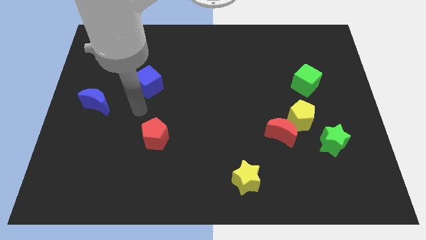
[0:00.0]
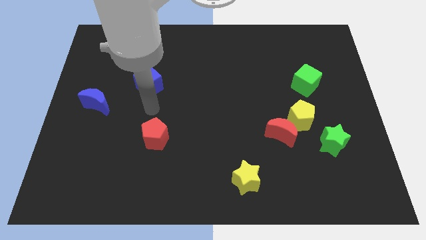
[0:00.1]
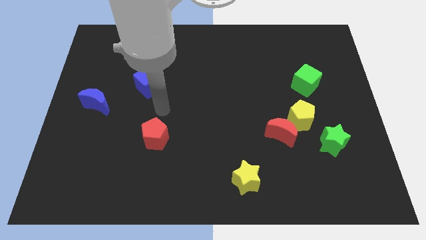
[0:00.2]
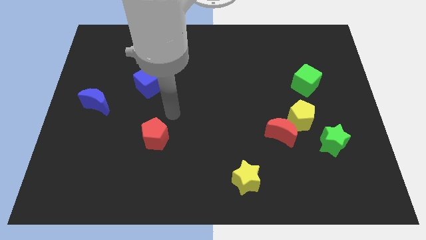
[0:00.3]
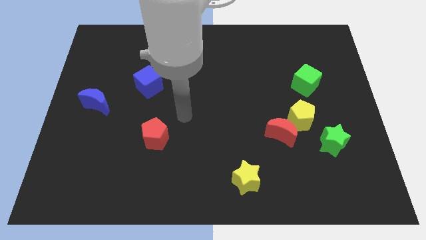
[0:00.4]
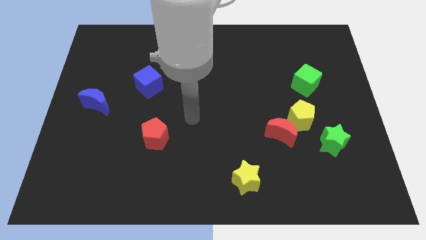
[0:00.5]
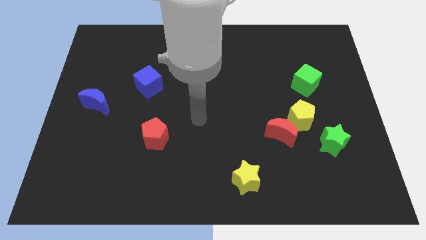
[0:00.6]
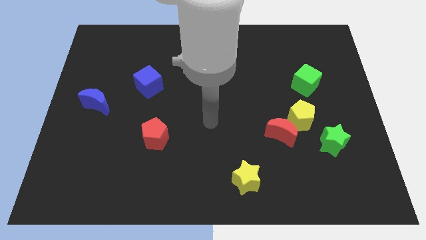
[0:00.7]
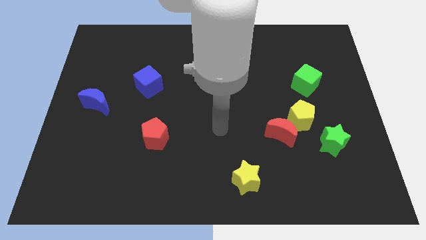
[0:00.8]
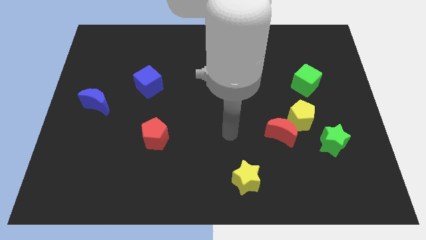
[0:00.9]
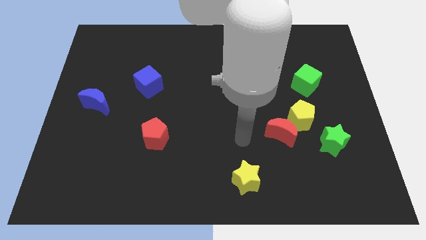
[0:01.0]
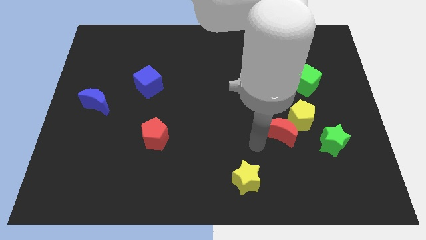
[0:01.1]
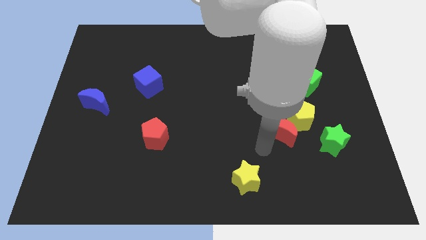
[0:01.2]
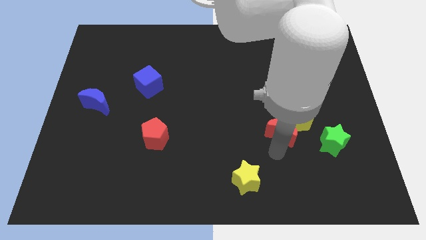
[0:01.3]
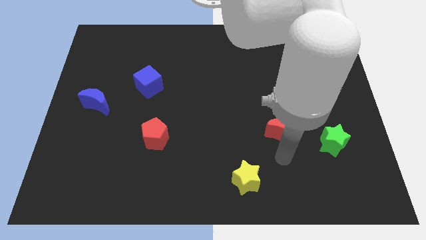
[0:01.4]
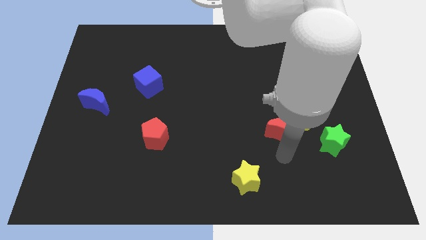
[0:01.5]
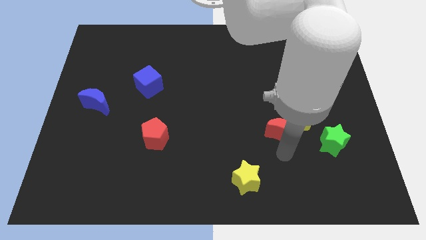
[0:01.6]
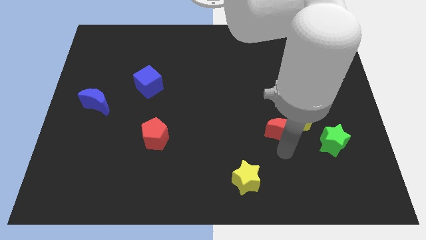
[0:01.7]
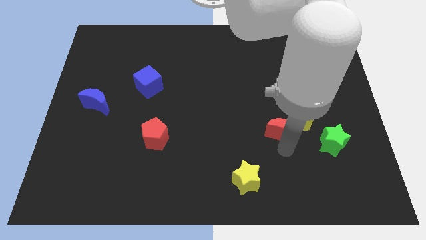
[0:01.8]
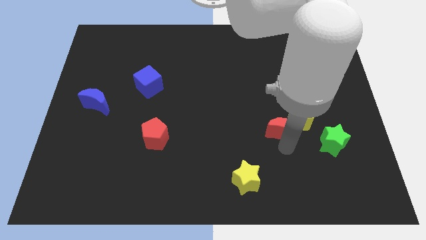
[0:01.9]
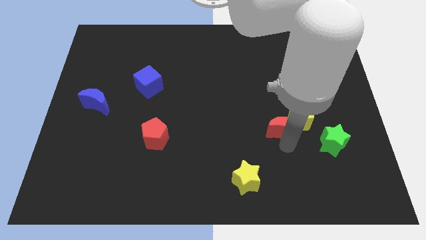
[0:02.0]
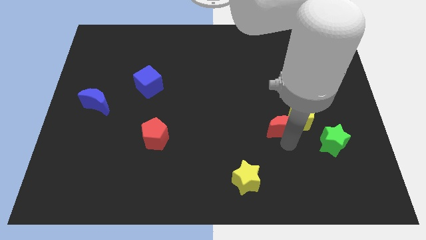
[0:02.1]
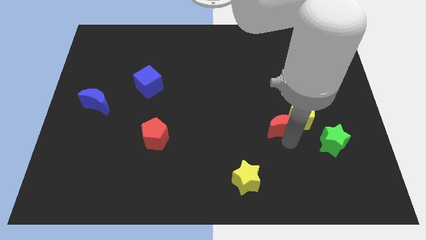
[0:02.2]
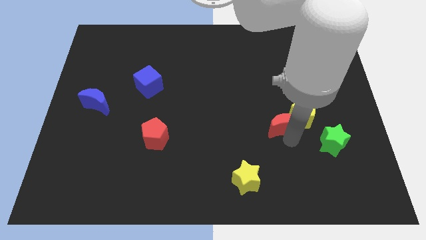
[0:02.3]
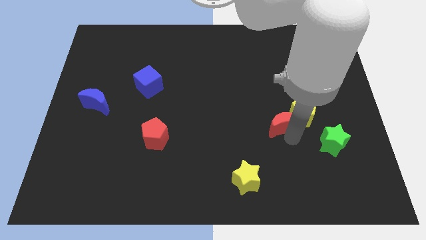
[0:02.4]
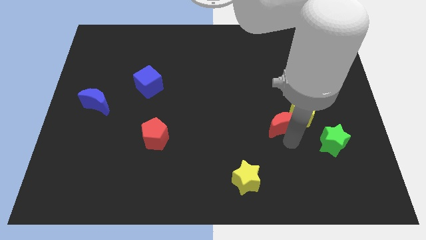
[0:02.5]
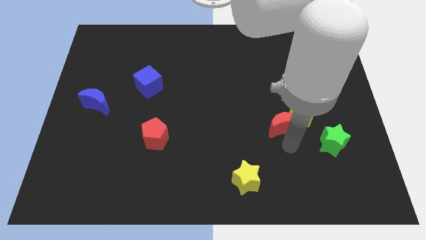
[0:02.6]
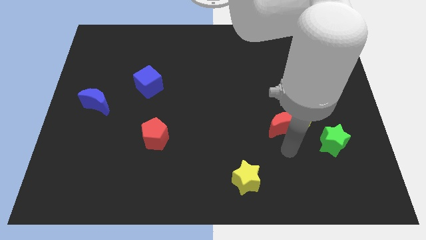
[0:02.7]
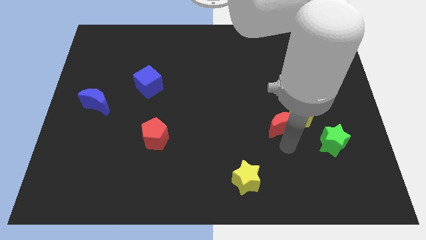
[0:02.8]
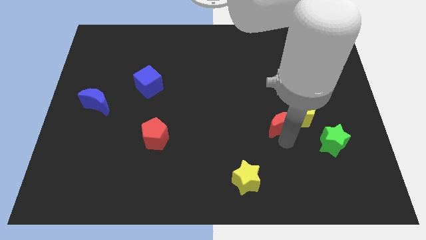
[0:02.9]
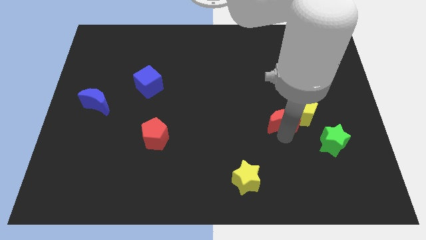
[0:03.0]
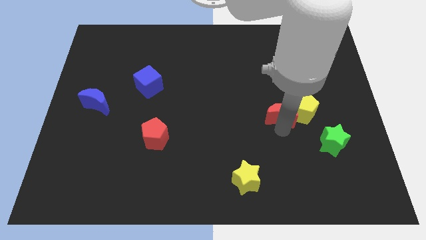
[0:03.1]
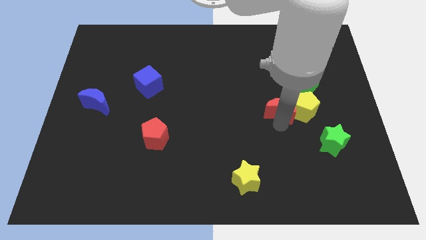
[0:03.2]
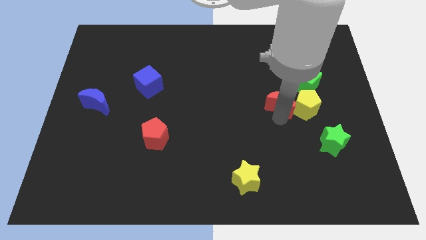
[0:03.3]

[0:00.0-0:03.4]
slightly push the red moon up

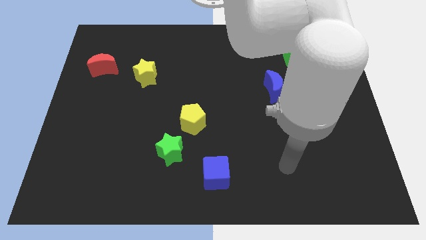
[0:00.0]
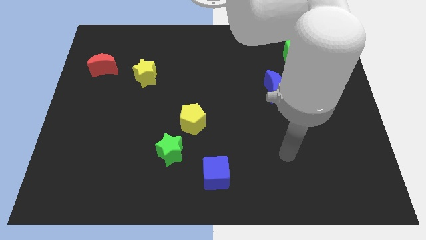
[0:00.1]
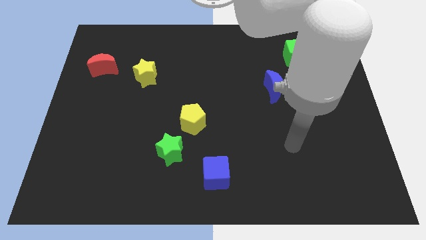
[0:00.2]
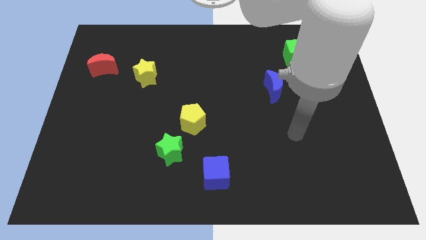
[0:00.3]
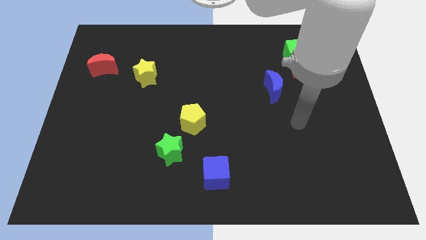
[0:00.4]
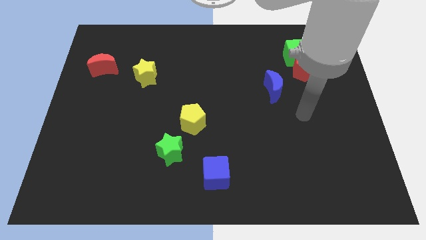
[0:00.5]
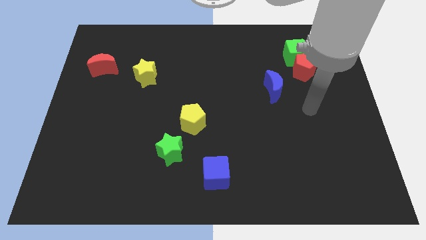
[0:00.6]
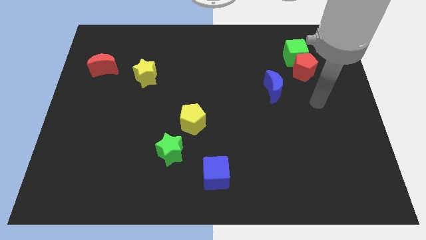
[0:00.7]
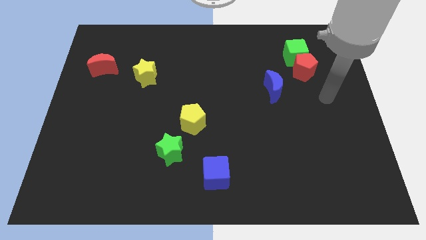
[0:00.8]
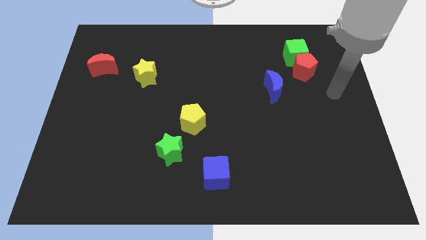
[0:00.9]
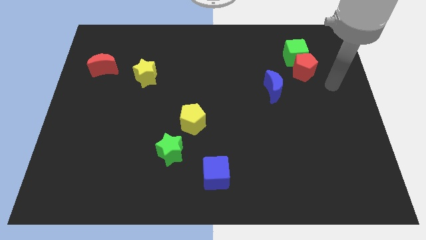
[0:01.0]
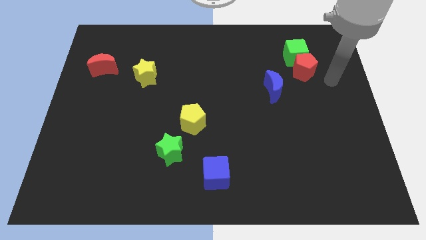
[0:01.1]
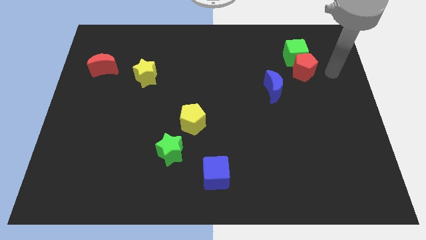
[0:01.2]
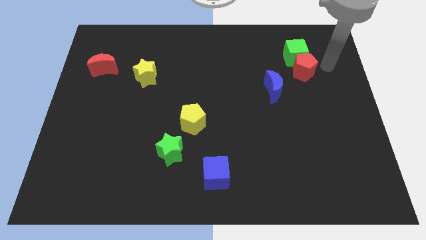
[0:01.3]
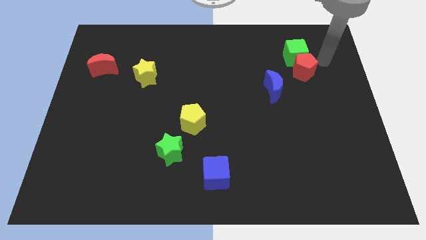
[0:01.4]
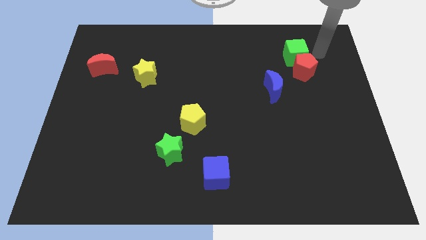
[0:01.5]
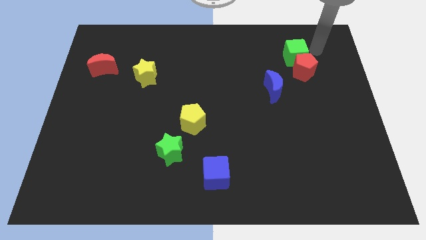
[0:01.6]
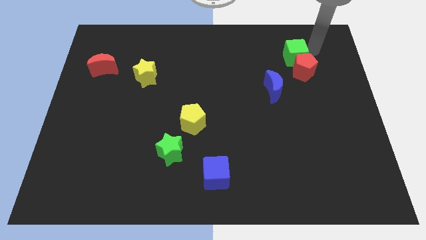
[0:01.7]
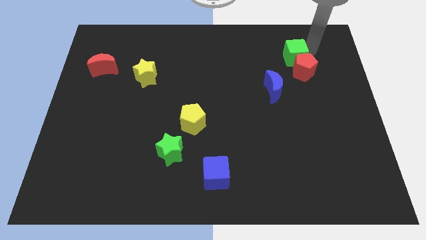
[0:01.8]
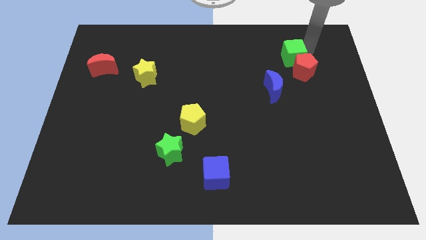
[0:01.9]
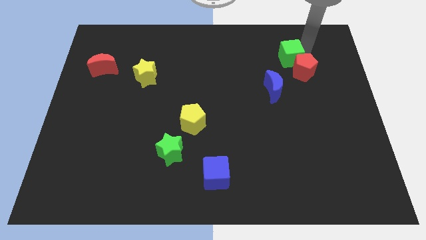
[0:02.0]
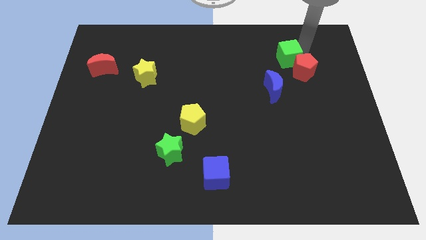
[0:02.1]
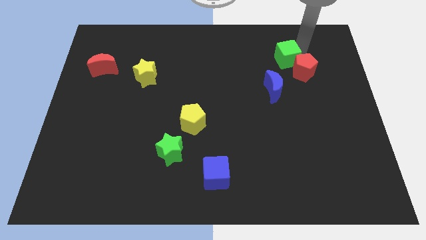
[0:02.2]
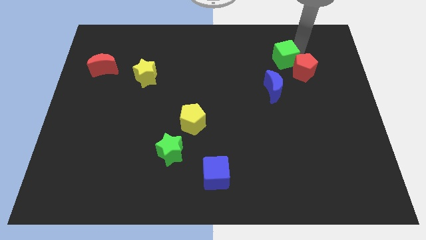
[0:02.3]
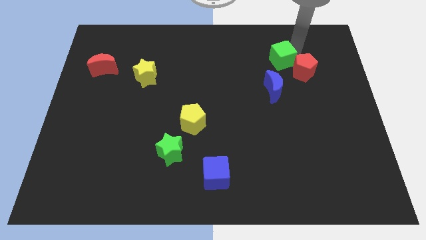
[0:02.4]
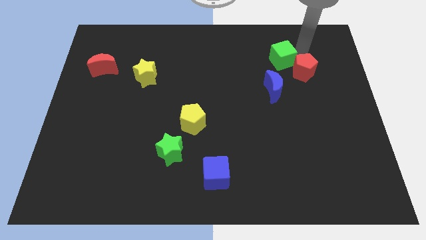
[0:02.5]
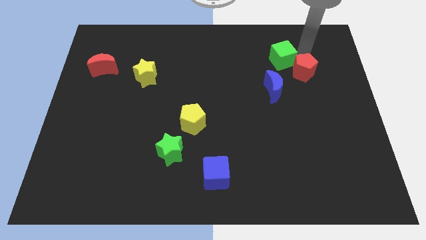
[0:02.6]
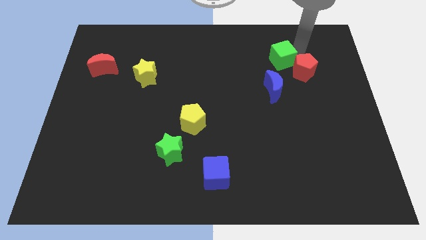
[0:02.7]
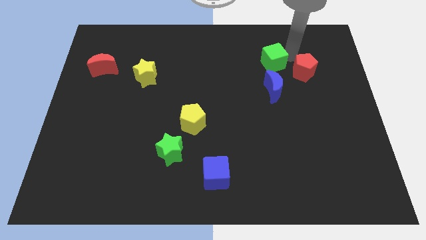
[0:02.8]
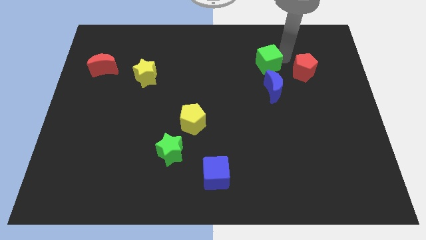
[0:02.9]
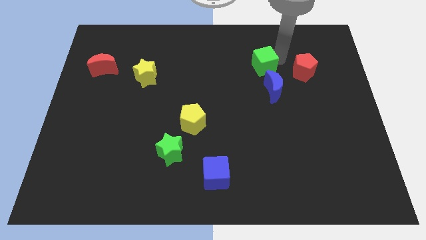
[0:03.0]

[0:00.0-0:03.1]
push the green cube a little diagonally down and to the left

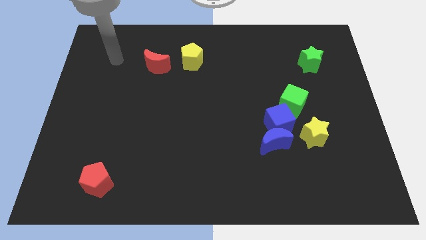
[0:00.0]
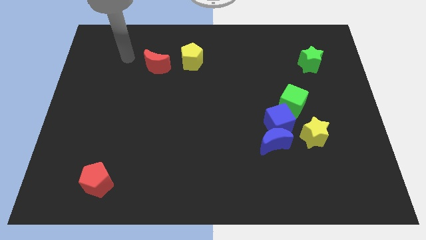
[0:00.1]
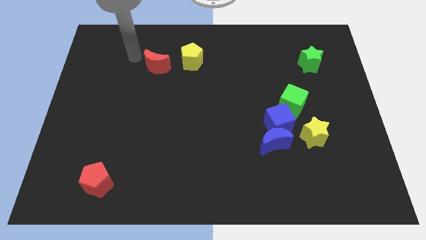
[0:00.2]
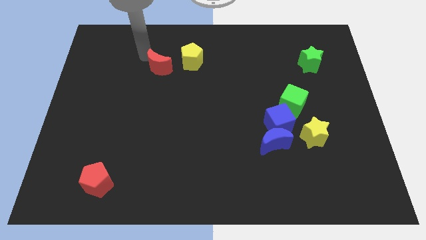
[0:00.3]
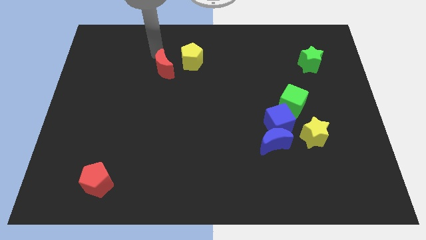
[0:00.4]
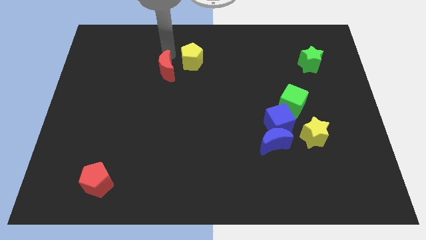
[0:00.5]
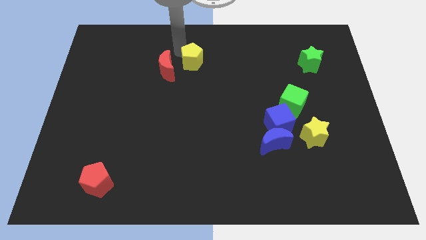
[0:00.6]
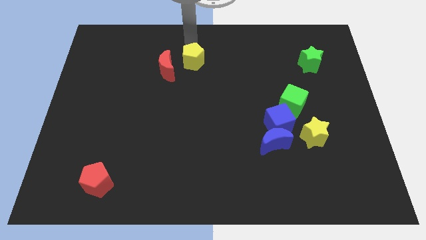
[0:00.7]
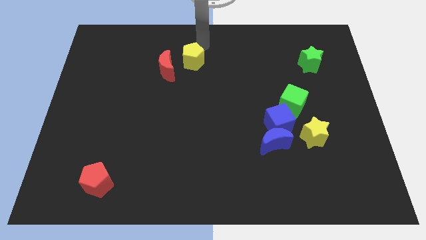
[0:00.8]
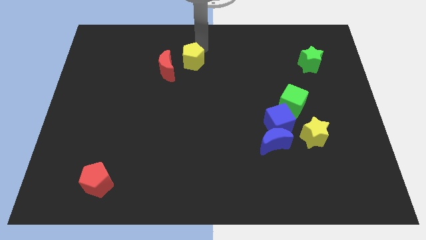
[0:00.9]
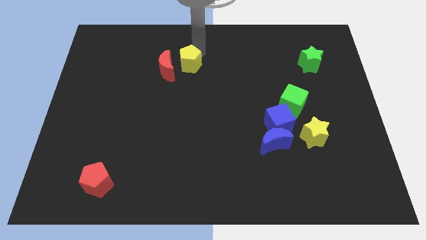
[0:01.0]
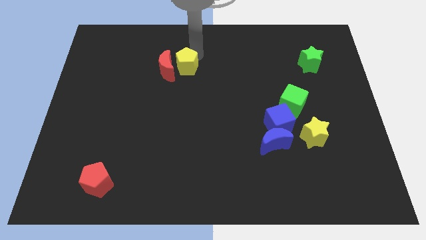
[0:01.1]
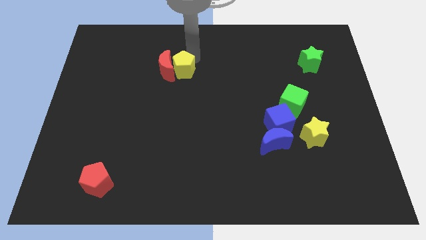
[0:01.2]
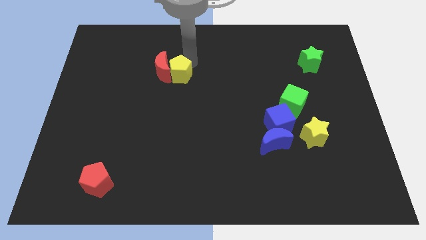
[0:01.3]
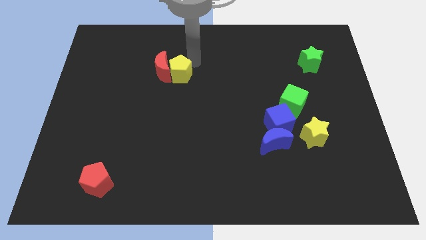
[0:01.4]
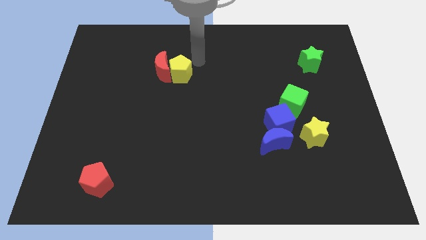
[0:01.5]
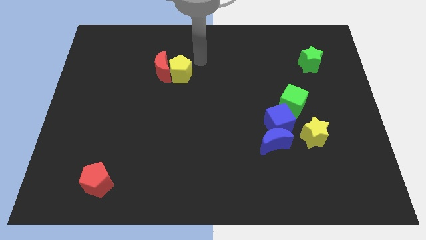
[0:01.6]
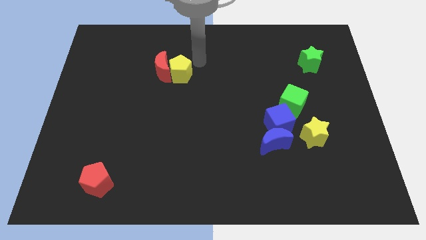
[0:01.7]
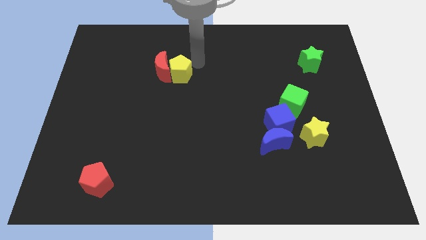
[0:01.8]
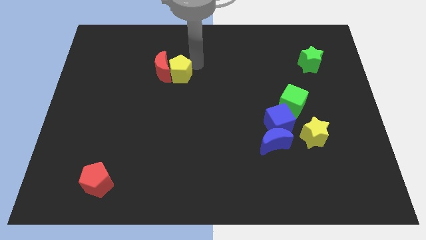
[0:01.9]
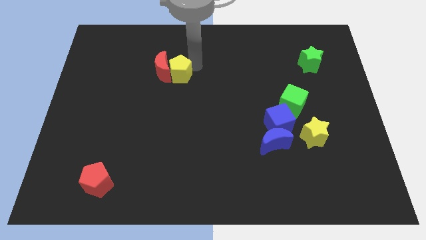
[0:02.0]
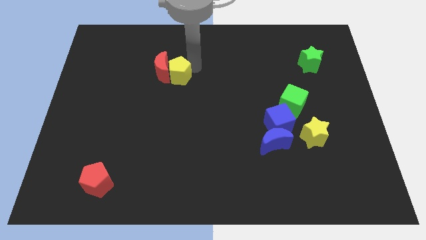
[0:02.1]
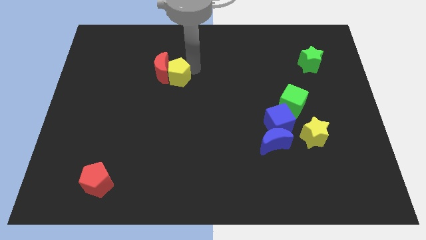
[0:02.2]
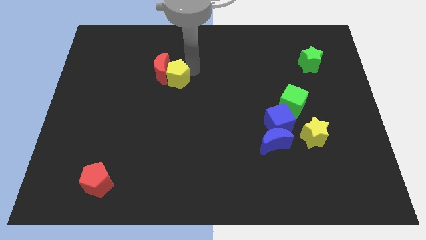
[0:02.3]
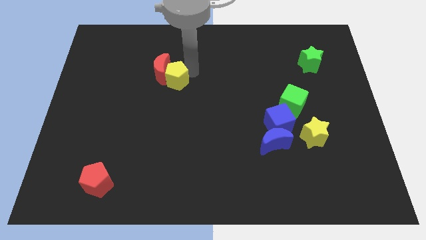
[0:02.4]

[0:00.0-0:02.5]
push the yellow pentagon a little down and left diagonally
